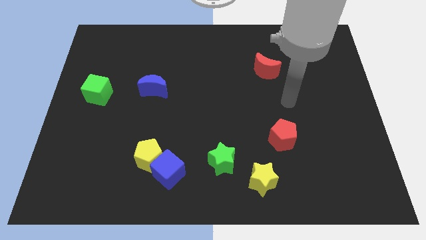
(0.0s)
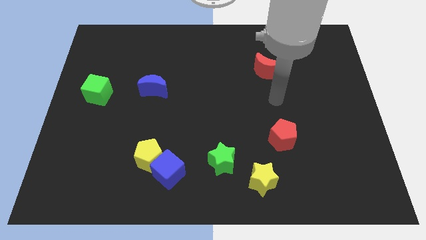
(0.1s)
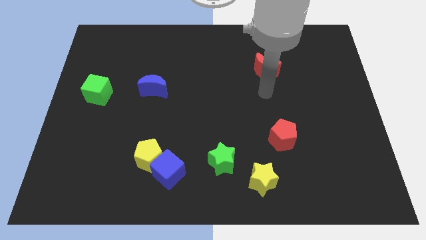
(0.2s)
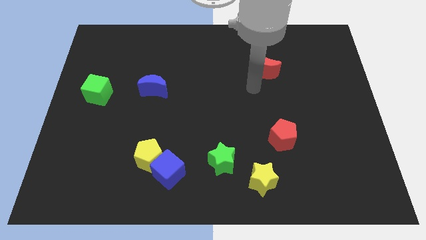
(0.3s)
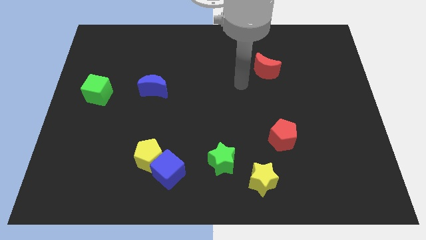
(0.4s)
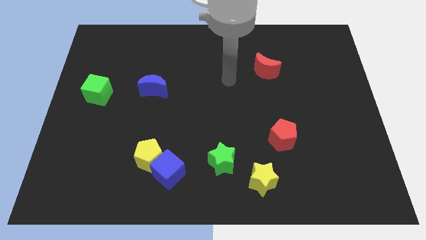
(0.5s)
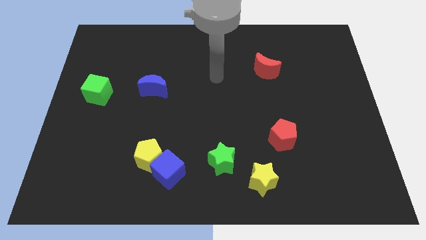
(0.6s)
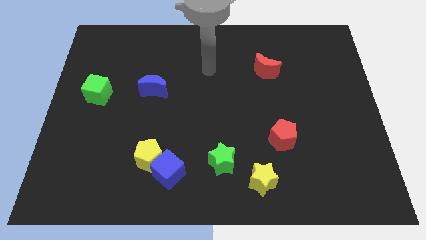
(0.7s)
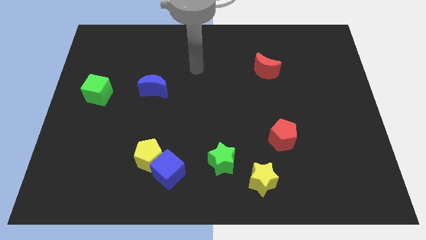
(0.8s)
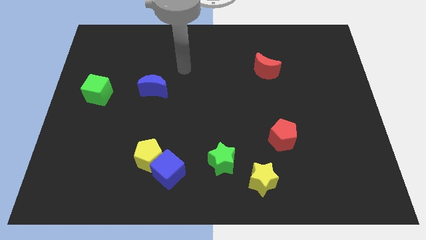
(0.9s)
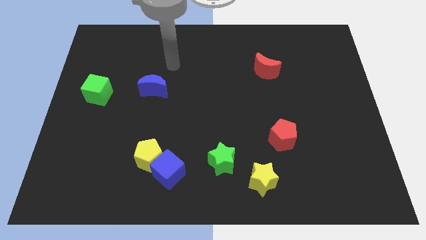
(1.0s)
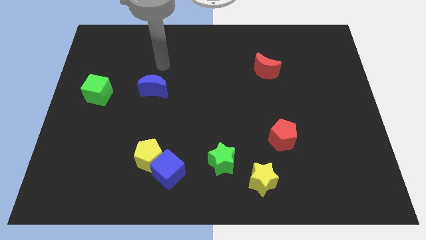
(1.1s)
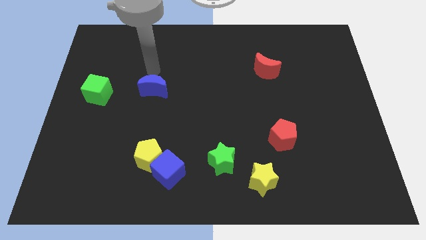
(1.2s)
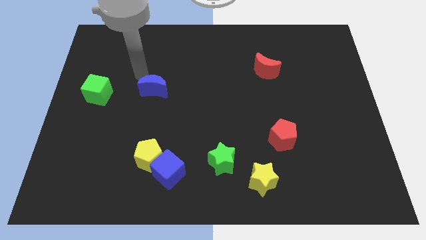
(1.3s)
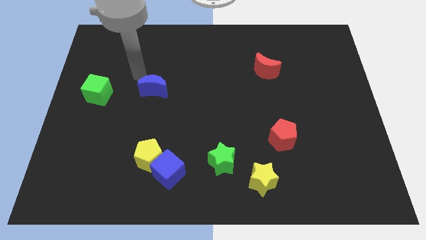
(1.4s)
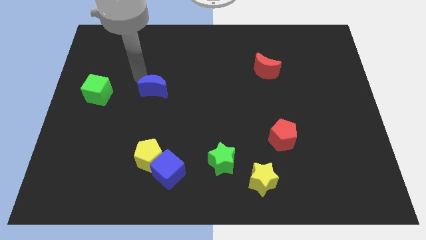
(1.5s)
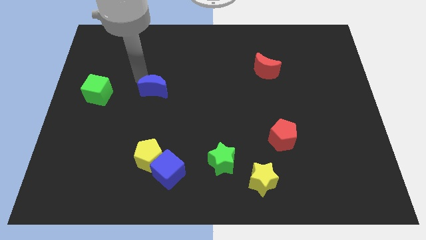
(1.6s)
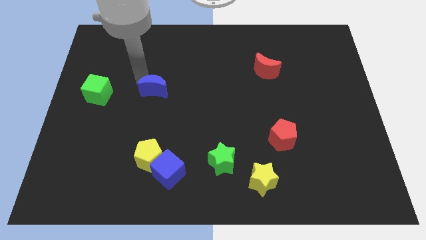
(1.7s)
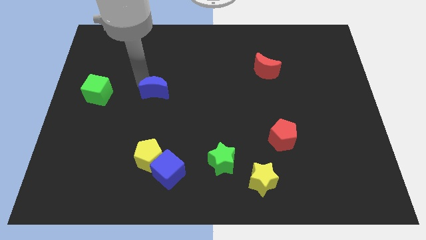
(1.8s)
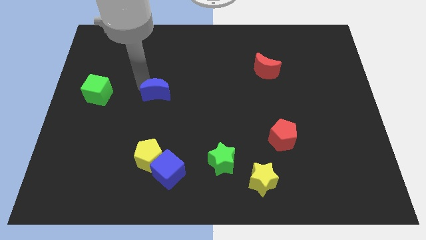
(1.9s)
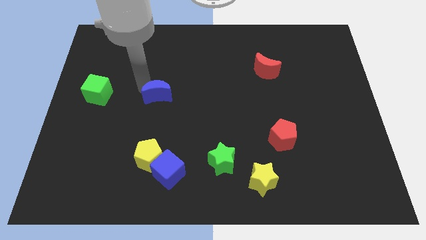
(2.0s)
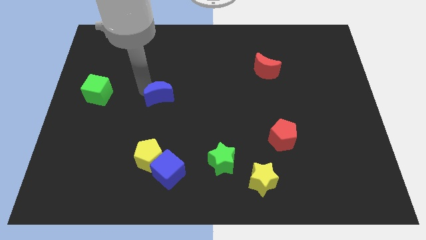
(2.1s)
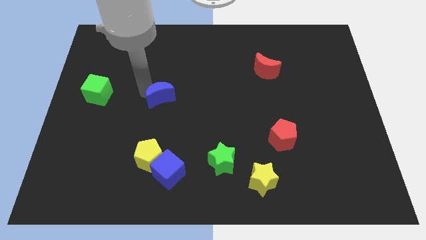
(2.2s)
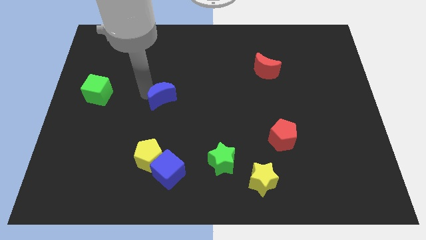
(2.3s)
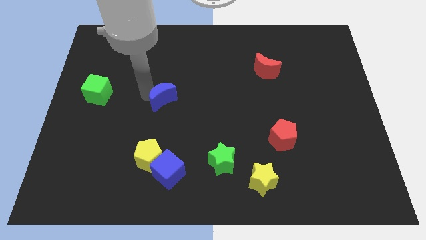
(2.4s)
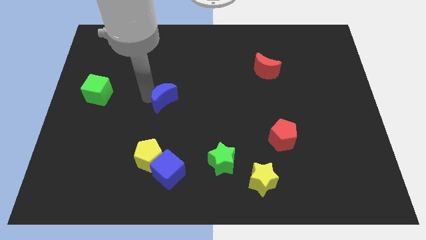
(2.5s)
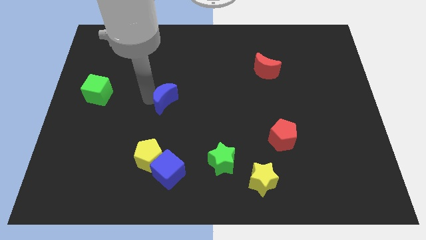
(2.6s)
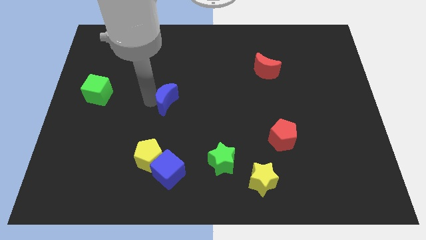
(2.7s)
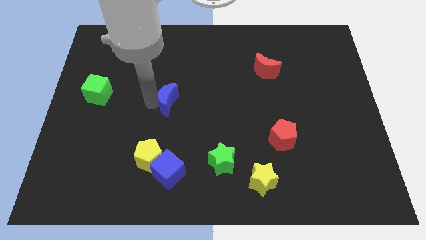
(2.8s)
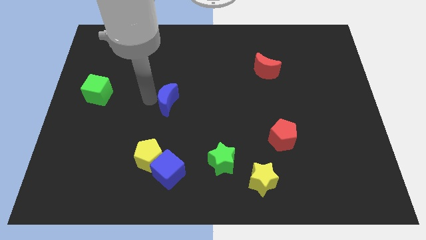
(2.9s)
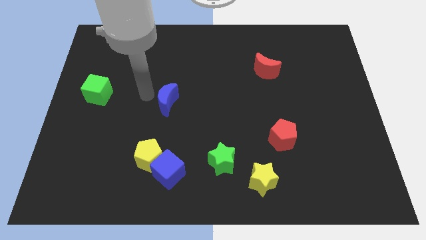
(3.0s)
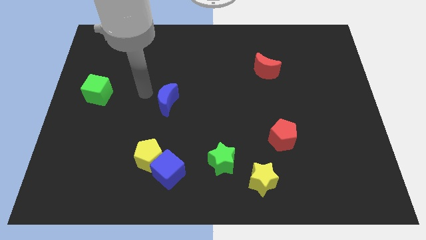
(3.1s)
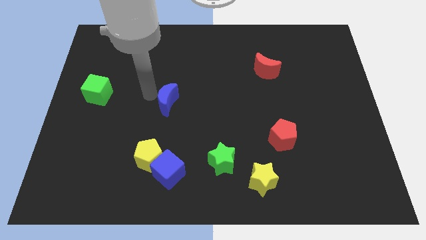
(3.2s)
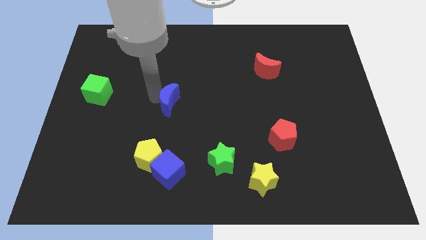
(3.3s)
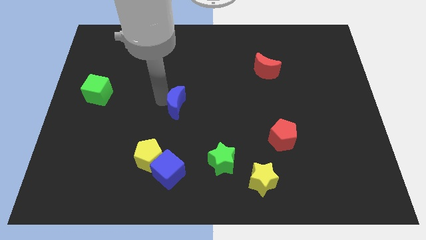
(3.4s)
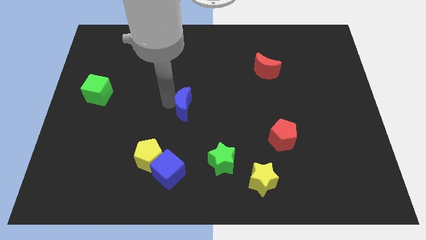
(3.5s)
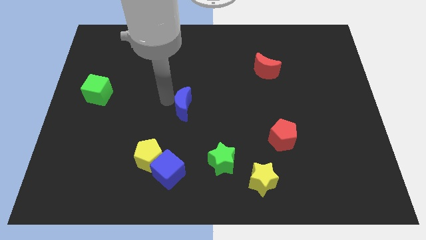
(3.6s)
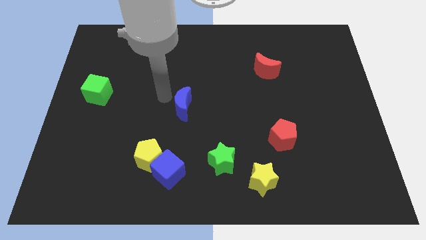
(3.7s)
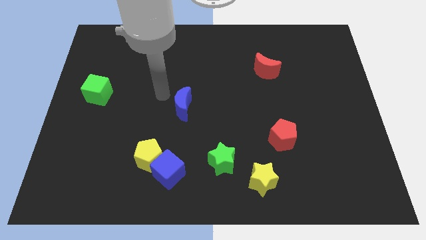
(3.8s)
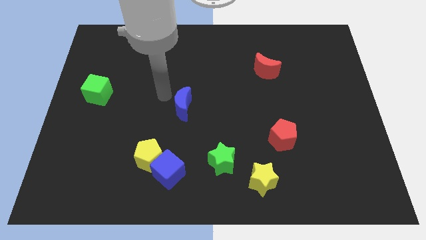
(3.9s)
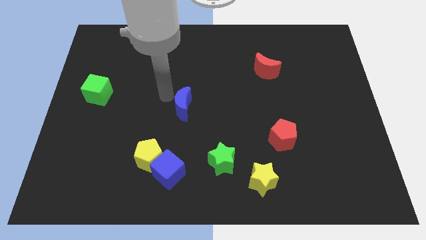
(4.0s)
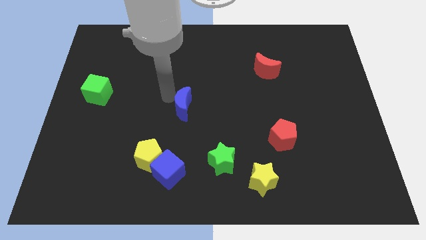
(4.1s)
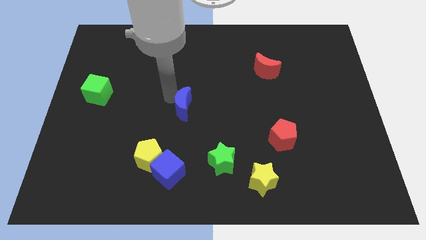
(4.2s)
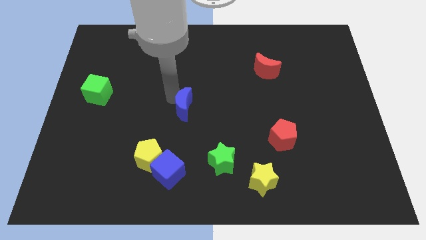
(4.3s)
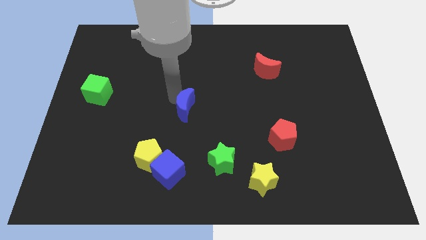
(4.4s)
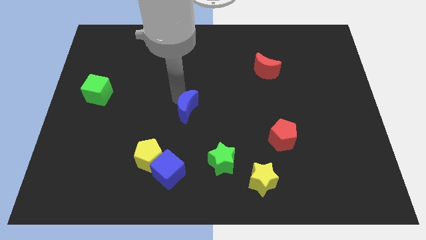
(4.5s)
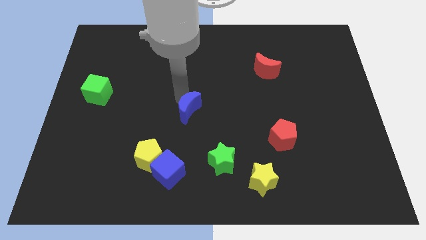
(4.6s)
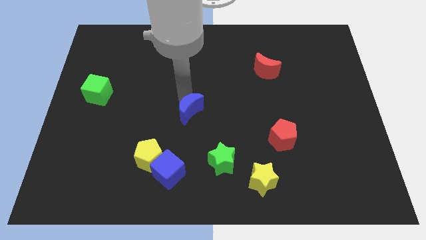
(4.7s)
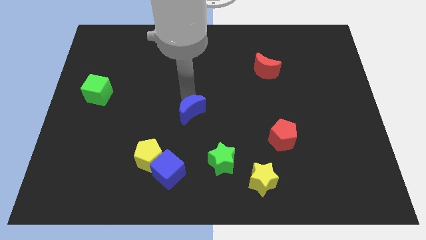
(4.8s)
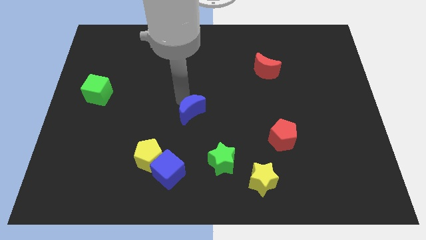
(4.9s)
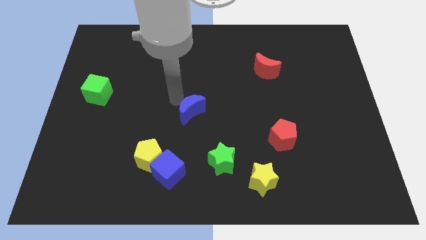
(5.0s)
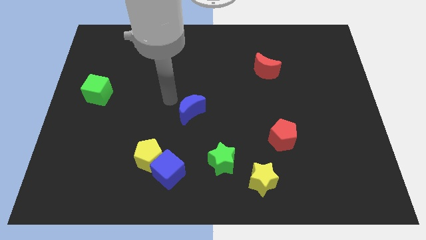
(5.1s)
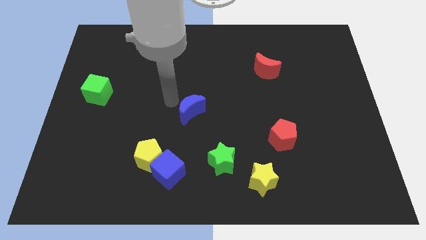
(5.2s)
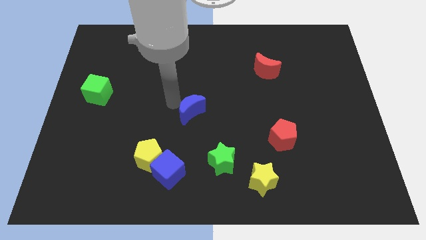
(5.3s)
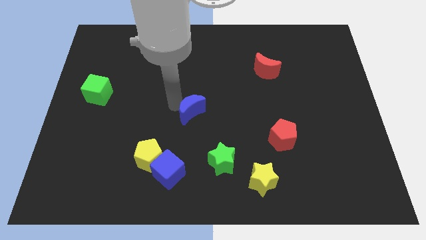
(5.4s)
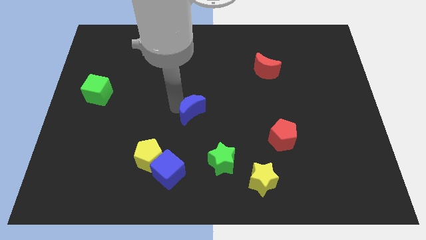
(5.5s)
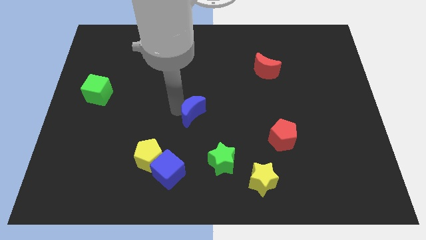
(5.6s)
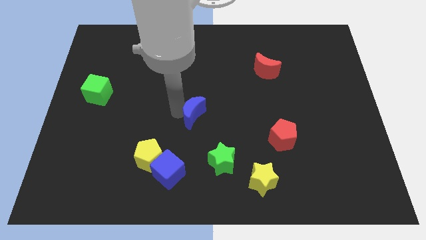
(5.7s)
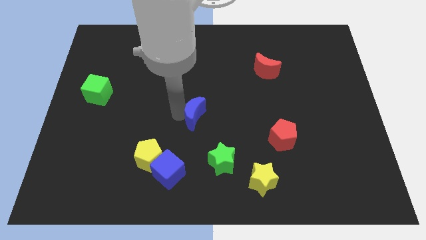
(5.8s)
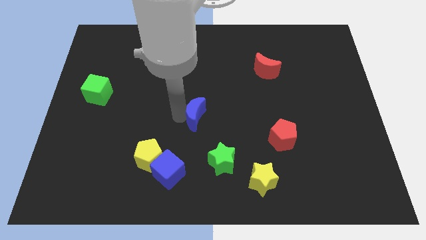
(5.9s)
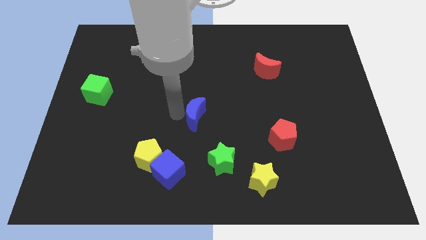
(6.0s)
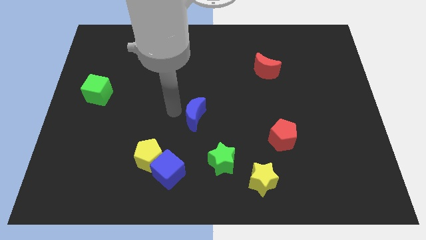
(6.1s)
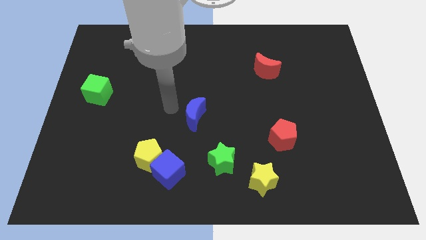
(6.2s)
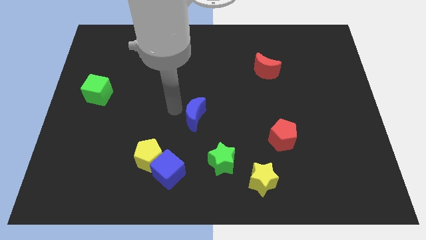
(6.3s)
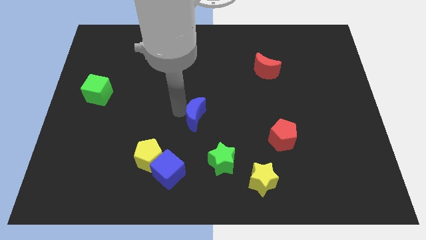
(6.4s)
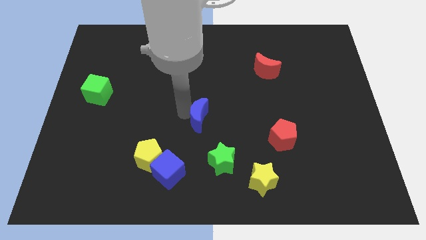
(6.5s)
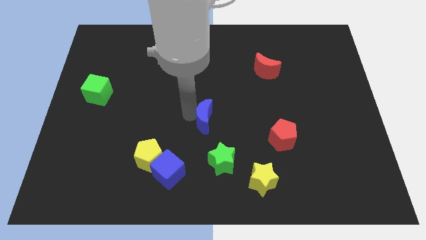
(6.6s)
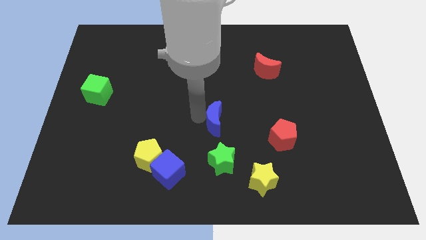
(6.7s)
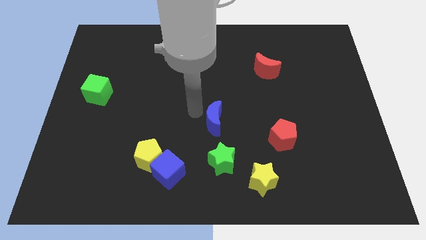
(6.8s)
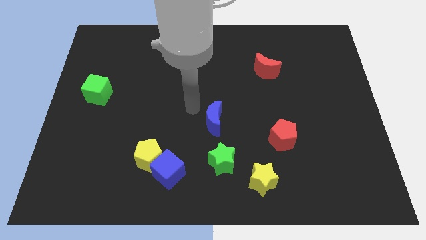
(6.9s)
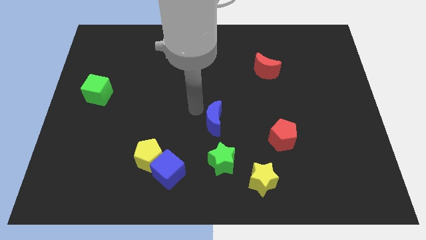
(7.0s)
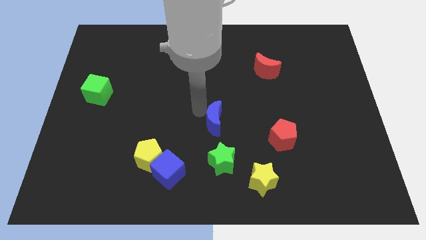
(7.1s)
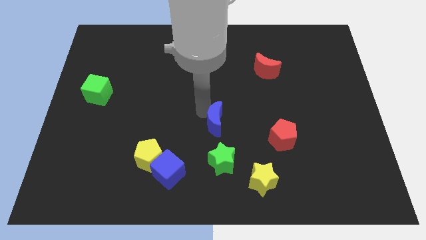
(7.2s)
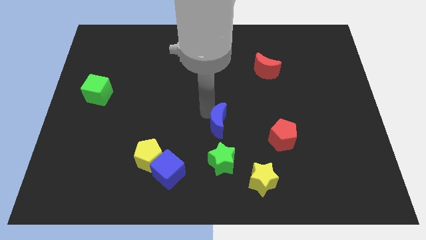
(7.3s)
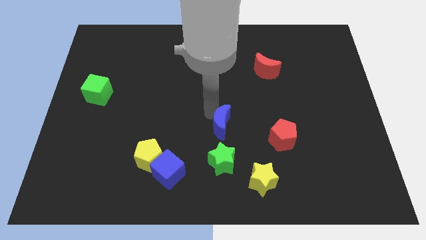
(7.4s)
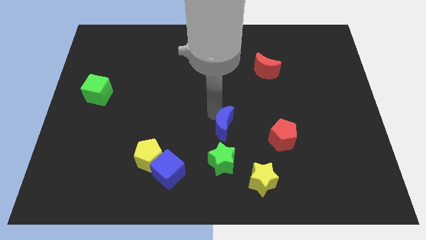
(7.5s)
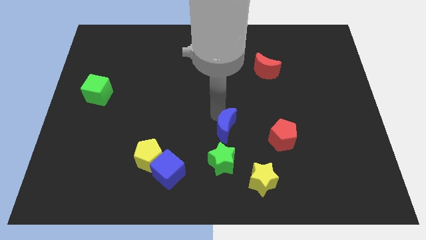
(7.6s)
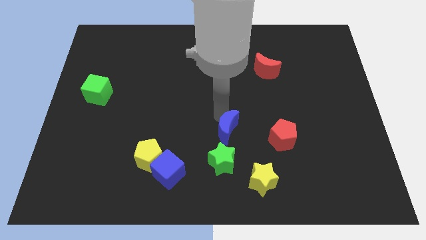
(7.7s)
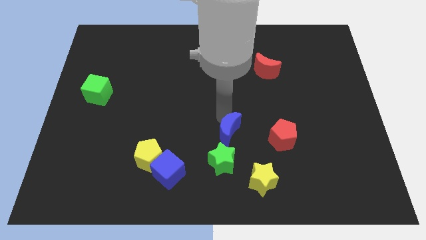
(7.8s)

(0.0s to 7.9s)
push the blue moon to the top right side of the green star

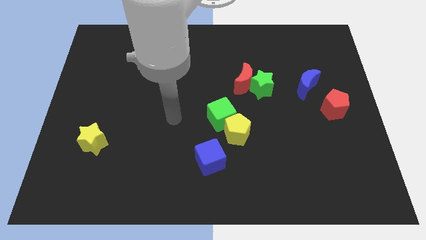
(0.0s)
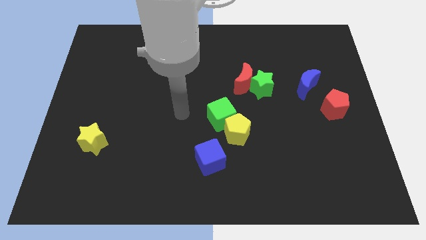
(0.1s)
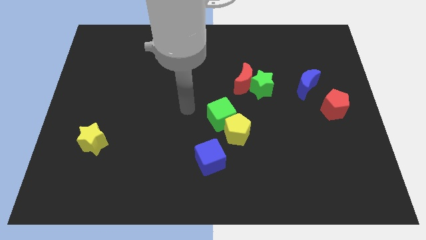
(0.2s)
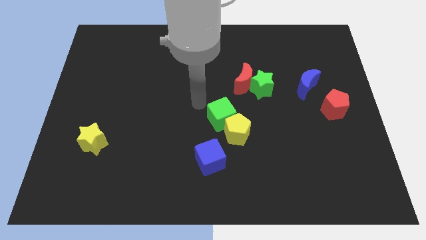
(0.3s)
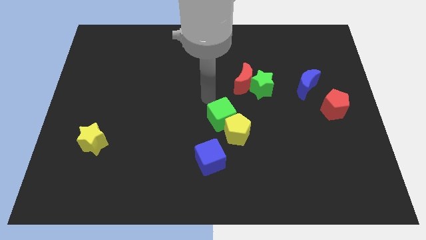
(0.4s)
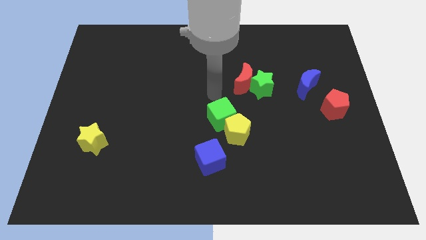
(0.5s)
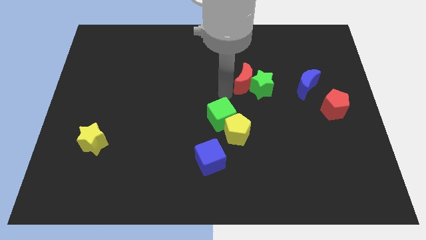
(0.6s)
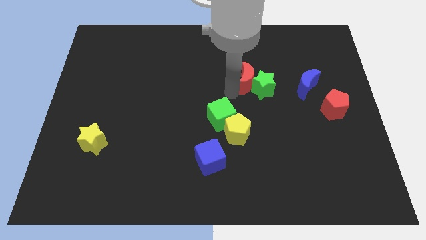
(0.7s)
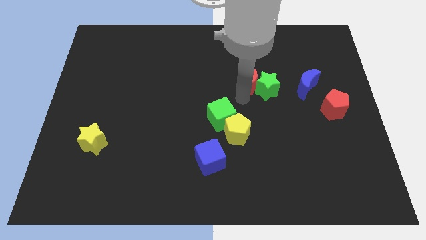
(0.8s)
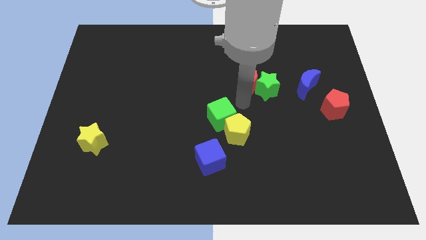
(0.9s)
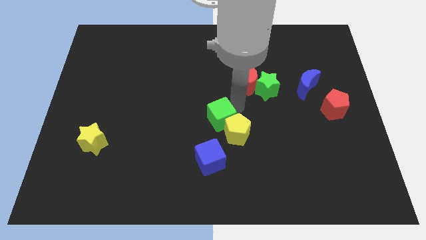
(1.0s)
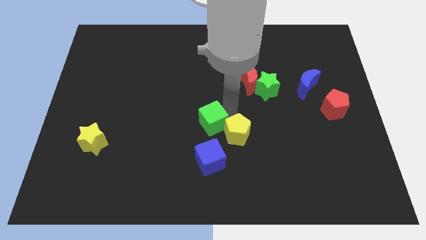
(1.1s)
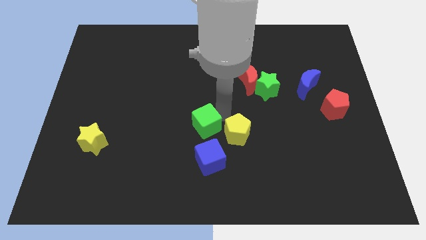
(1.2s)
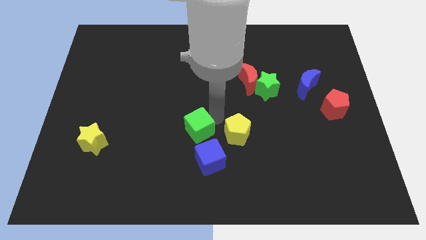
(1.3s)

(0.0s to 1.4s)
move the green cube to the top left side of the blue cube
